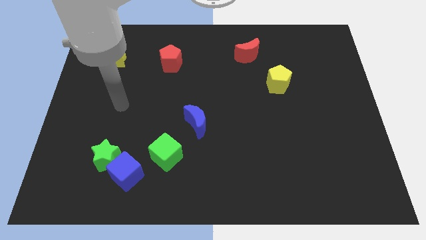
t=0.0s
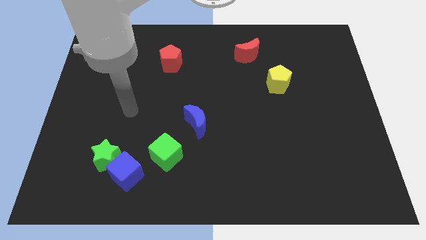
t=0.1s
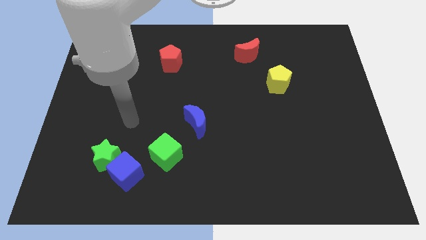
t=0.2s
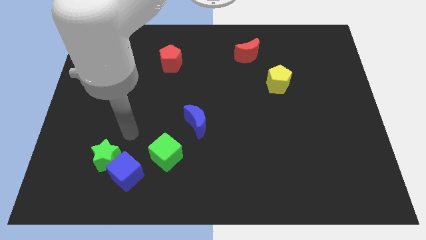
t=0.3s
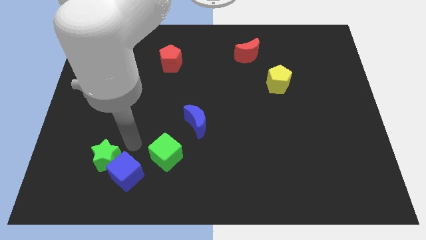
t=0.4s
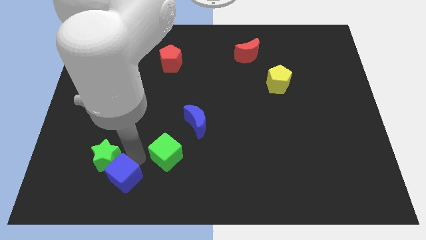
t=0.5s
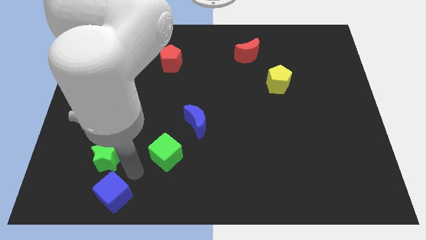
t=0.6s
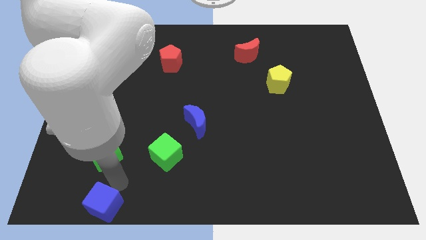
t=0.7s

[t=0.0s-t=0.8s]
move the green star away from the blue cube

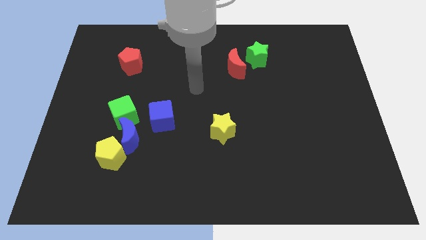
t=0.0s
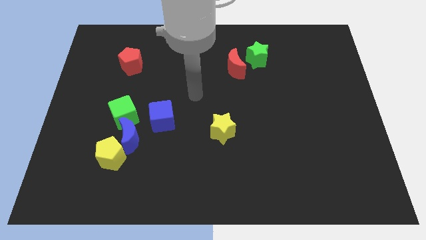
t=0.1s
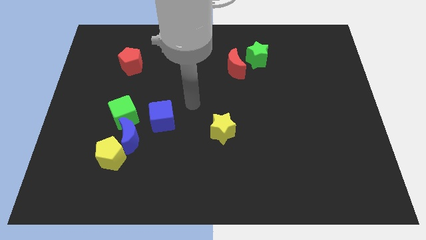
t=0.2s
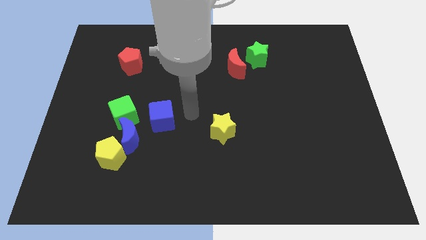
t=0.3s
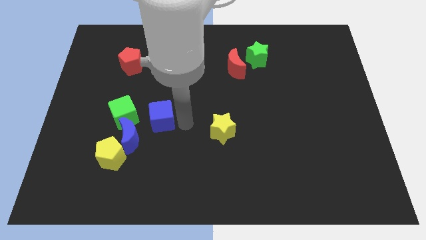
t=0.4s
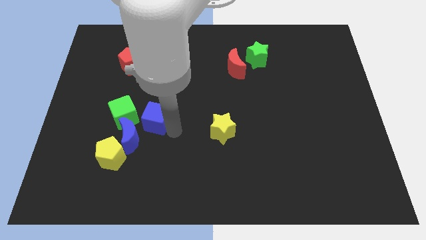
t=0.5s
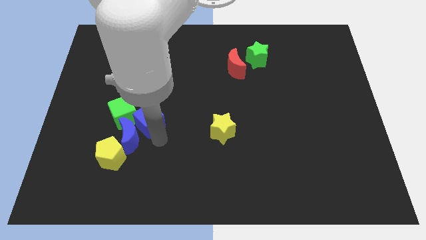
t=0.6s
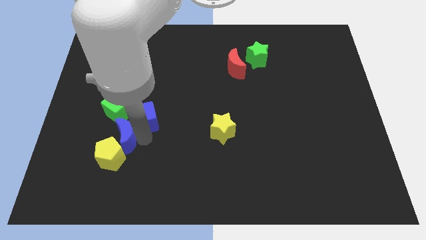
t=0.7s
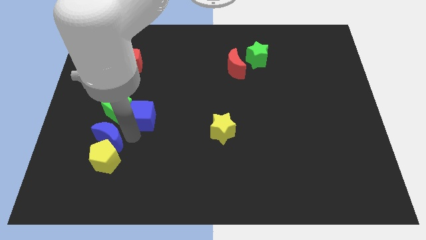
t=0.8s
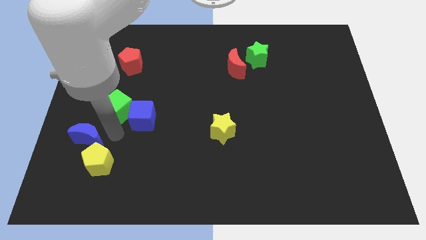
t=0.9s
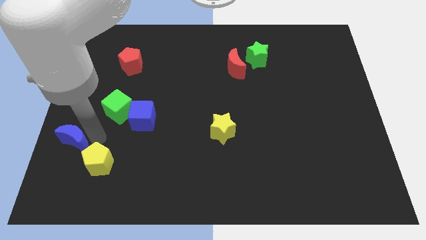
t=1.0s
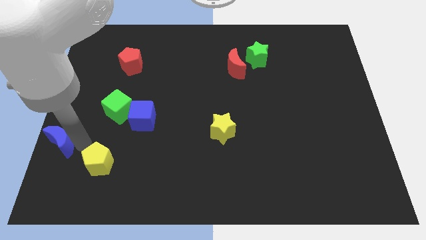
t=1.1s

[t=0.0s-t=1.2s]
separate the yellow pentagon from the blue moon

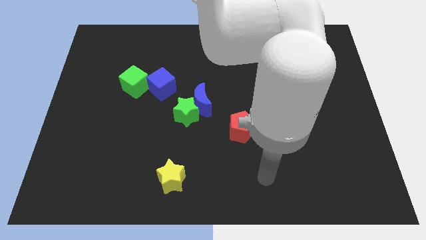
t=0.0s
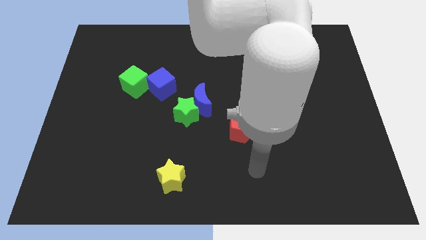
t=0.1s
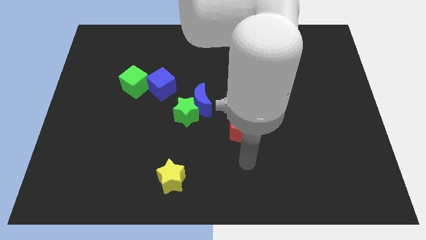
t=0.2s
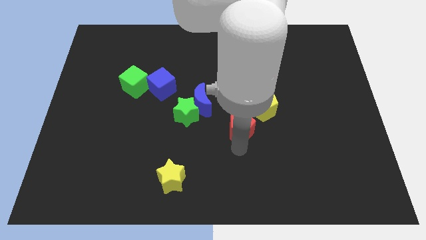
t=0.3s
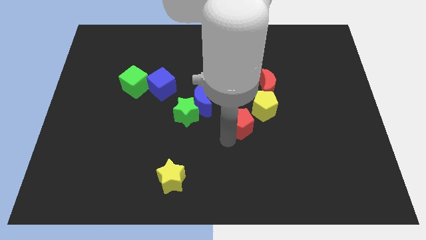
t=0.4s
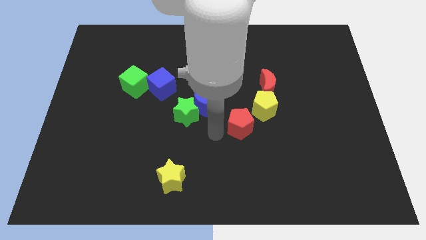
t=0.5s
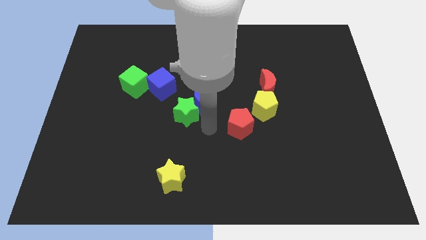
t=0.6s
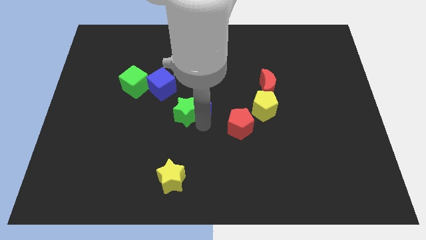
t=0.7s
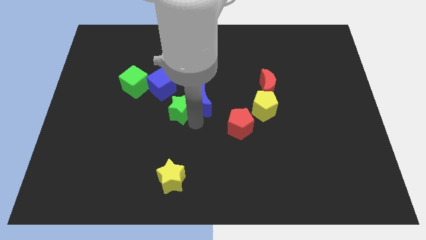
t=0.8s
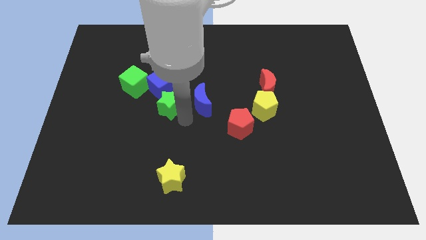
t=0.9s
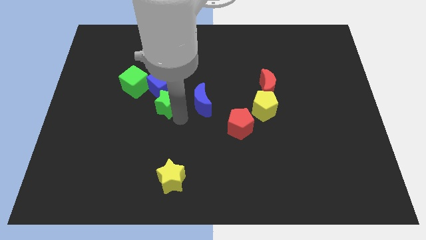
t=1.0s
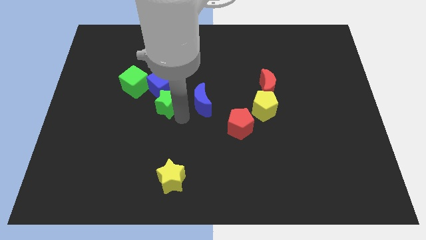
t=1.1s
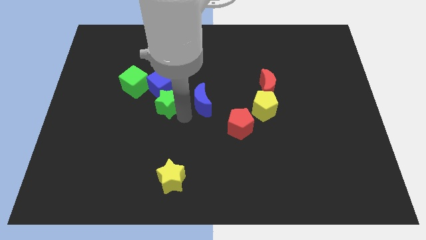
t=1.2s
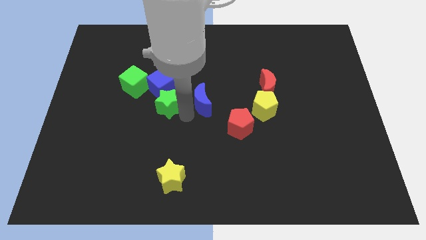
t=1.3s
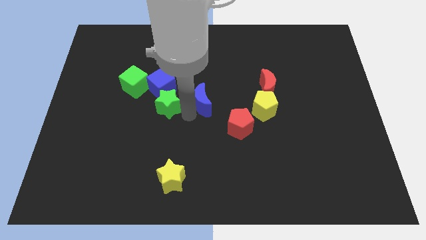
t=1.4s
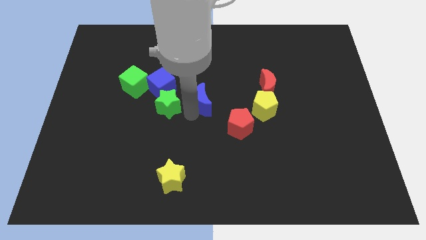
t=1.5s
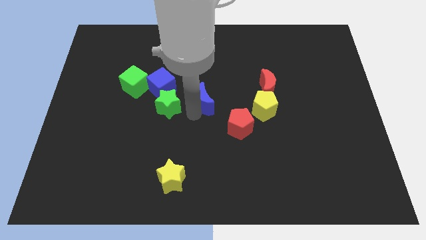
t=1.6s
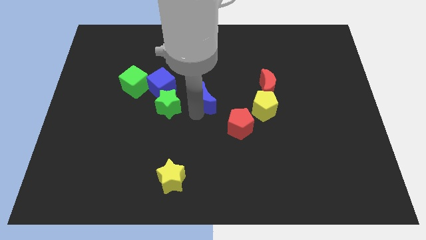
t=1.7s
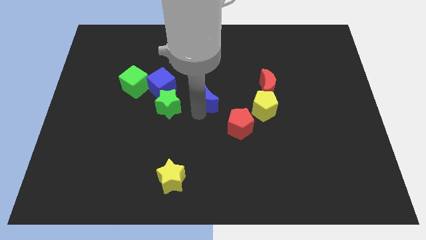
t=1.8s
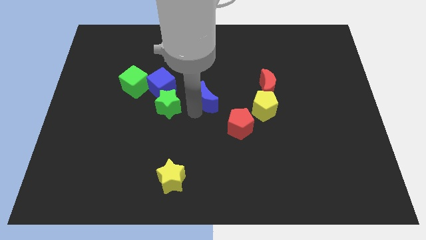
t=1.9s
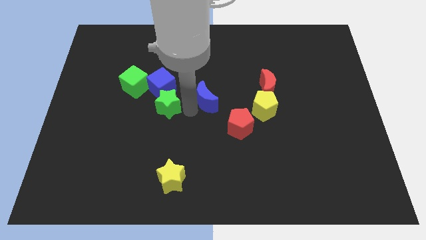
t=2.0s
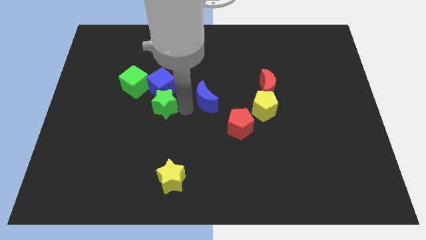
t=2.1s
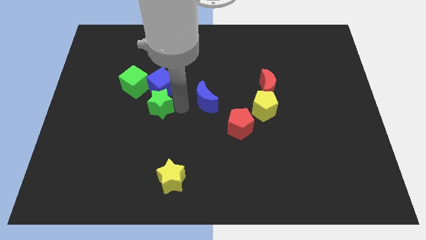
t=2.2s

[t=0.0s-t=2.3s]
move the blue moon away from the green star

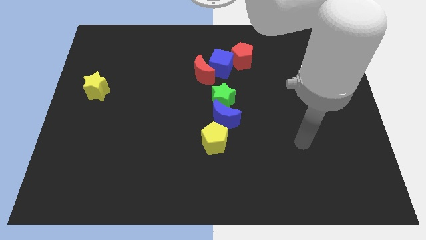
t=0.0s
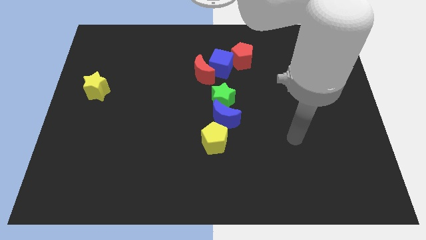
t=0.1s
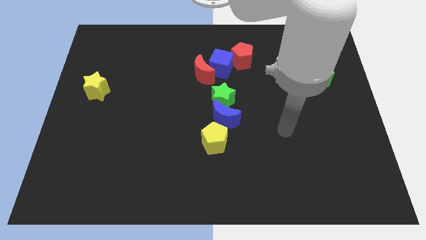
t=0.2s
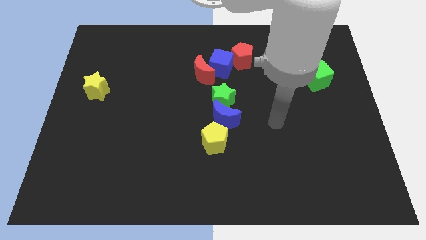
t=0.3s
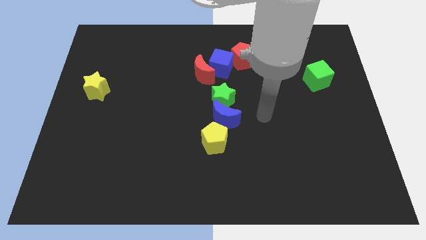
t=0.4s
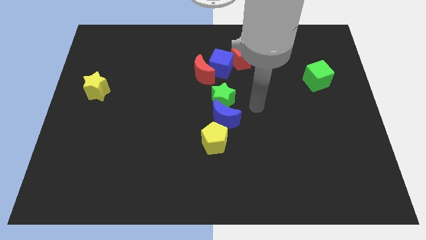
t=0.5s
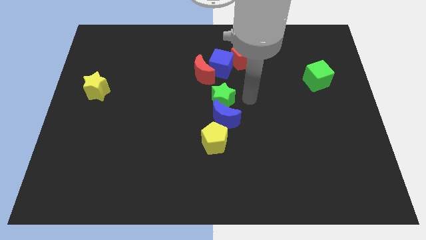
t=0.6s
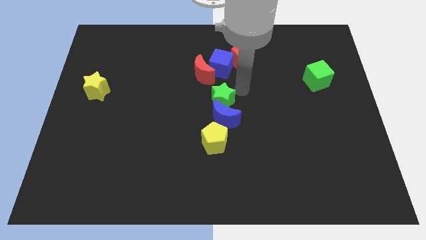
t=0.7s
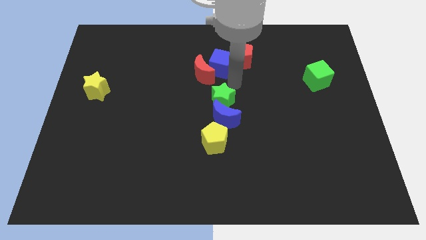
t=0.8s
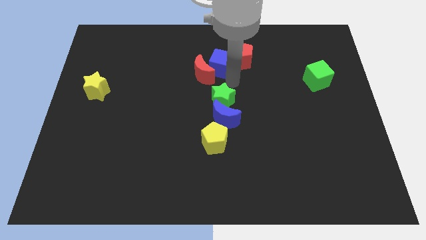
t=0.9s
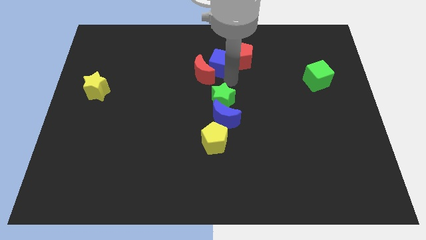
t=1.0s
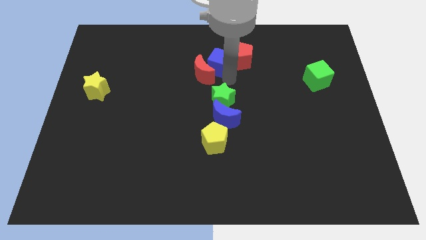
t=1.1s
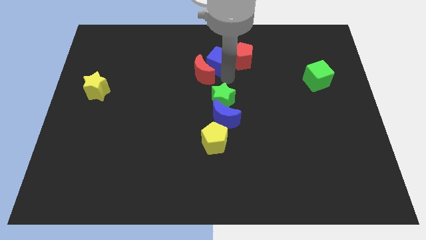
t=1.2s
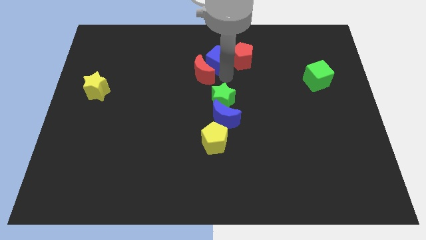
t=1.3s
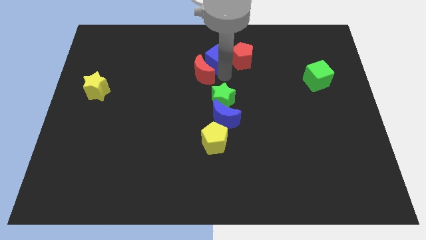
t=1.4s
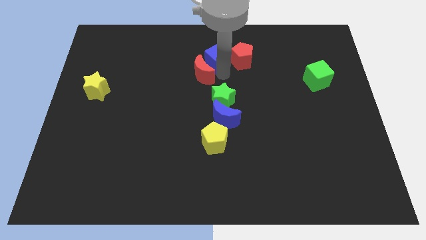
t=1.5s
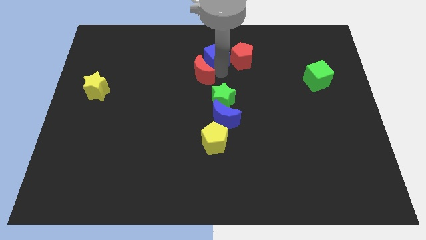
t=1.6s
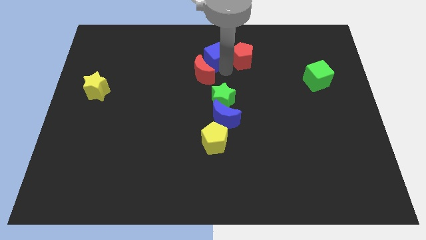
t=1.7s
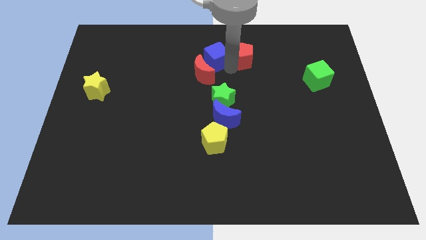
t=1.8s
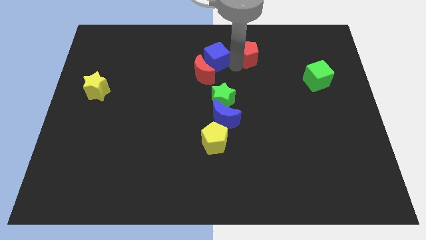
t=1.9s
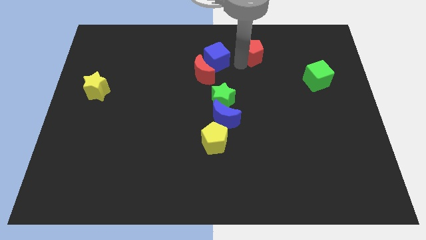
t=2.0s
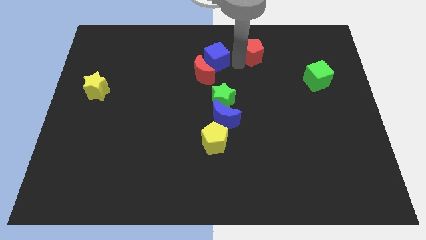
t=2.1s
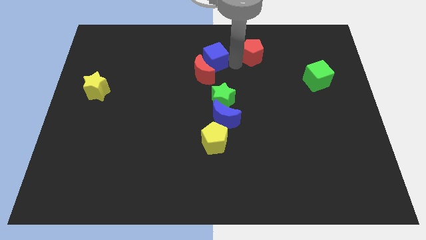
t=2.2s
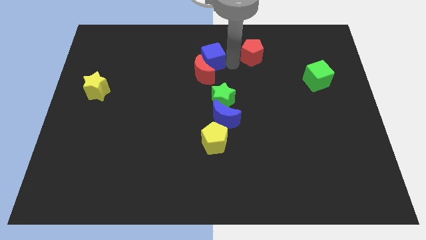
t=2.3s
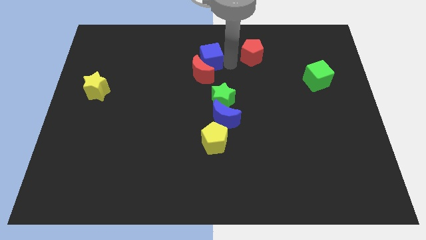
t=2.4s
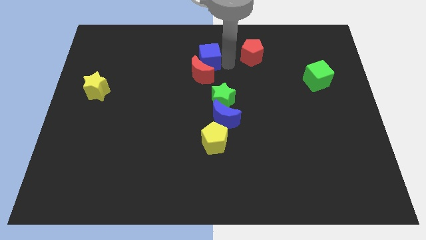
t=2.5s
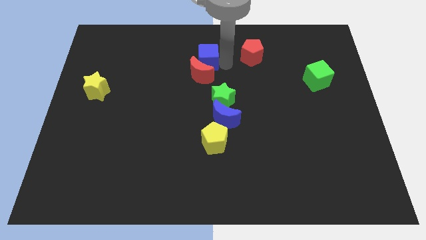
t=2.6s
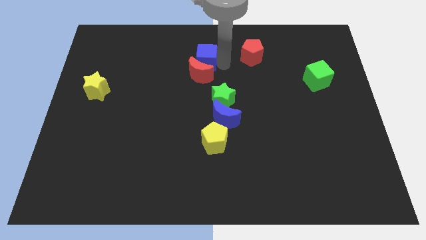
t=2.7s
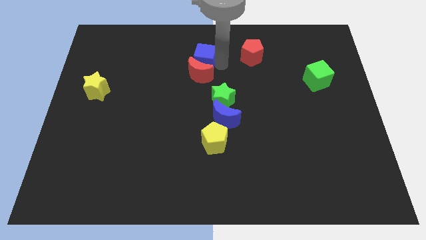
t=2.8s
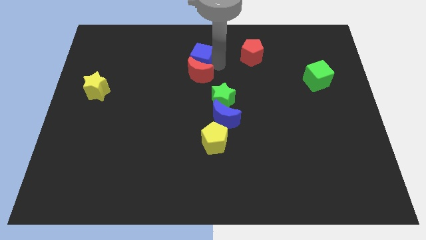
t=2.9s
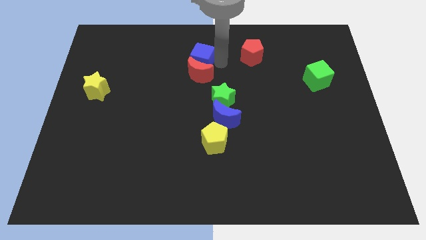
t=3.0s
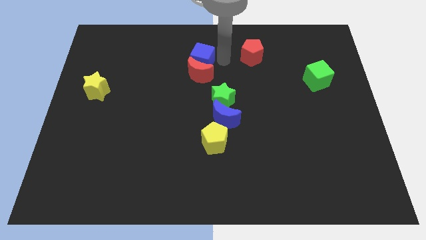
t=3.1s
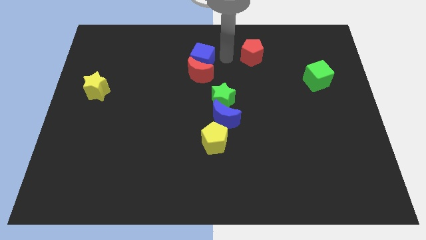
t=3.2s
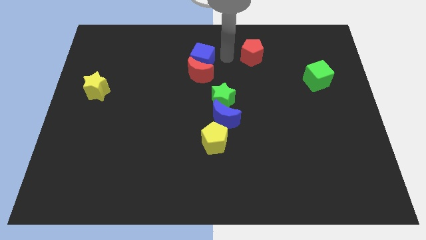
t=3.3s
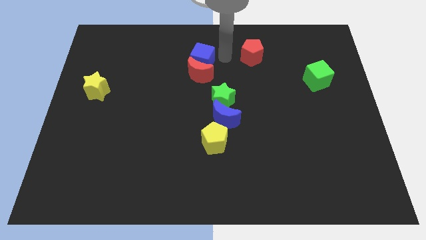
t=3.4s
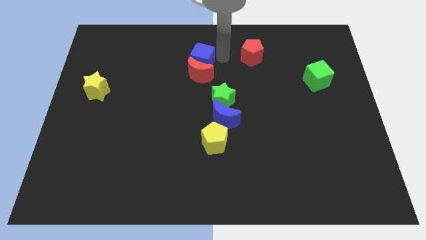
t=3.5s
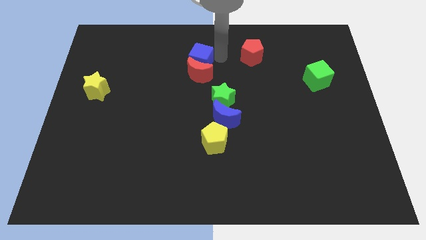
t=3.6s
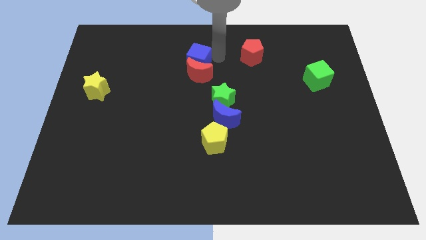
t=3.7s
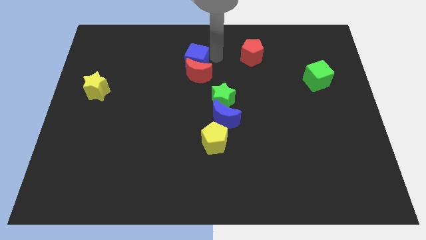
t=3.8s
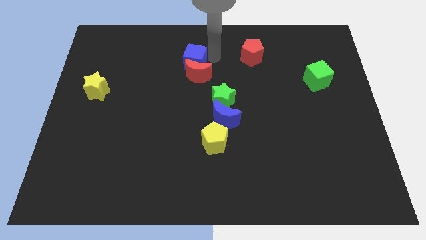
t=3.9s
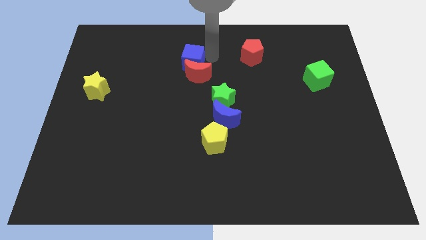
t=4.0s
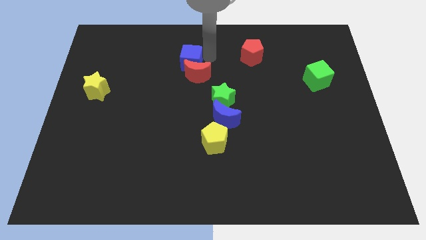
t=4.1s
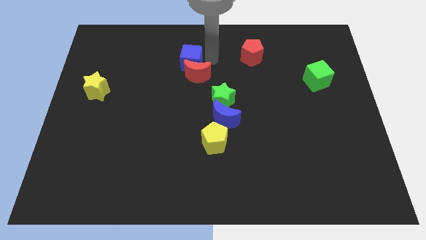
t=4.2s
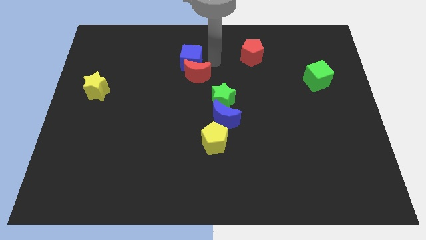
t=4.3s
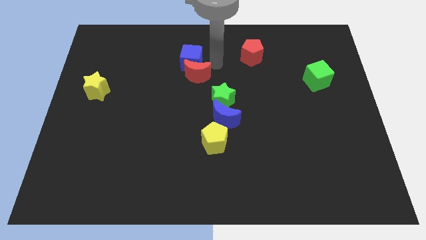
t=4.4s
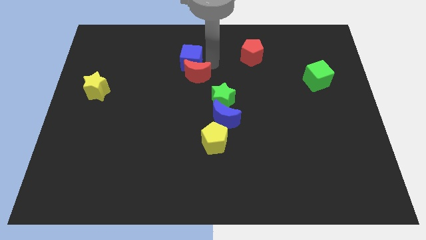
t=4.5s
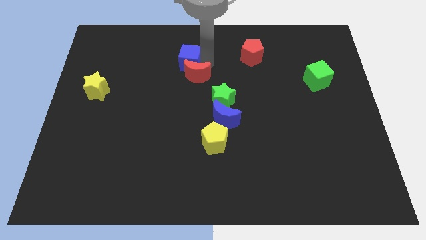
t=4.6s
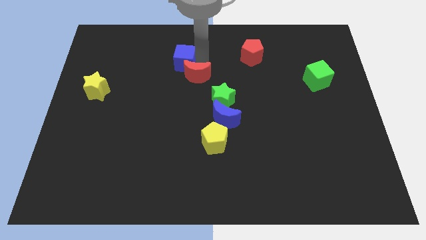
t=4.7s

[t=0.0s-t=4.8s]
separate the blue cube from the red moon and red pentagon

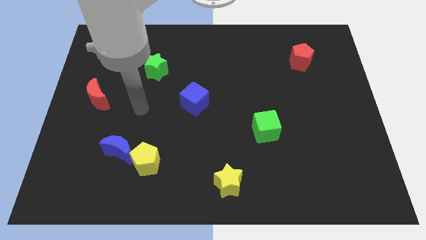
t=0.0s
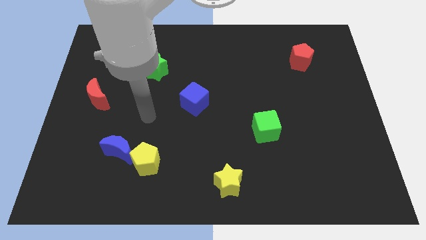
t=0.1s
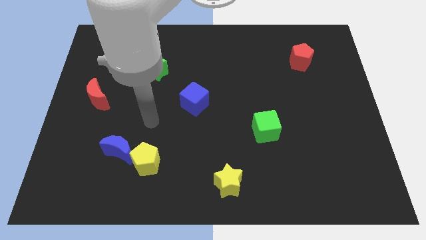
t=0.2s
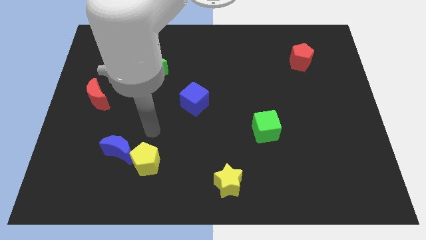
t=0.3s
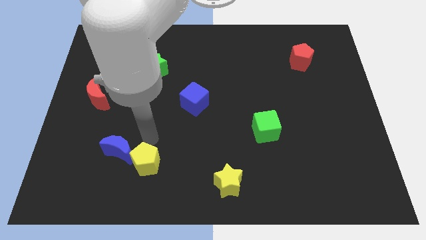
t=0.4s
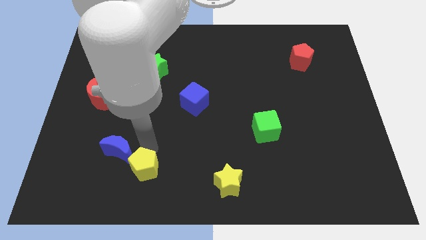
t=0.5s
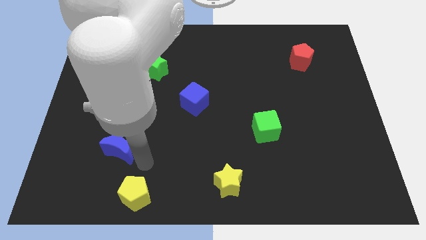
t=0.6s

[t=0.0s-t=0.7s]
move the blue moon away from the yellow pentagon
